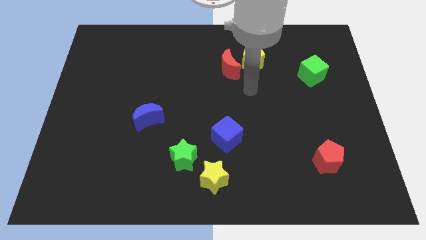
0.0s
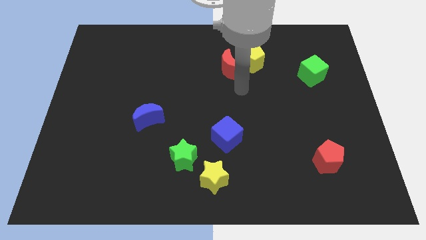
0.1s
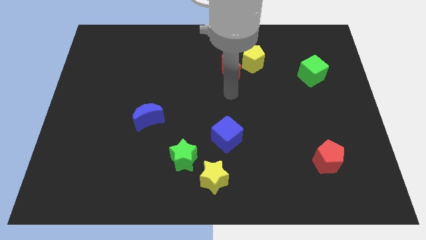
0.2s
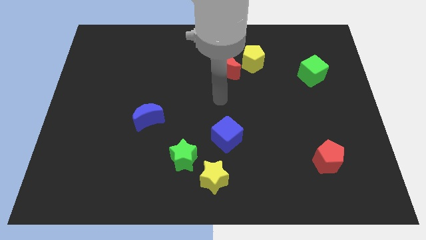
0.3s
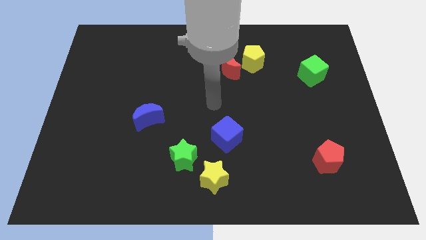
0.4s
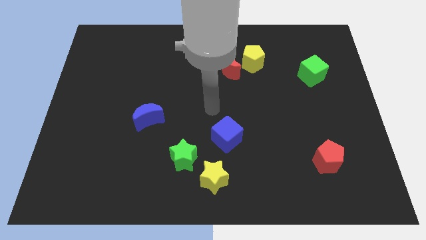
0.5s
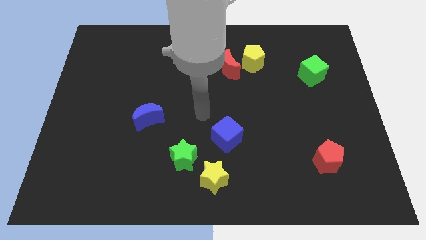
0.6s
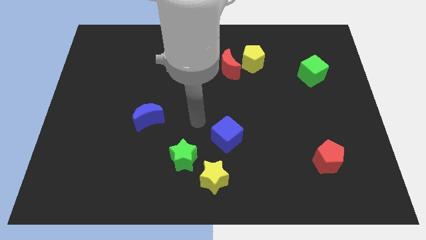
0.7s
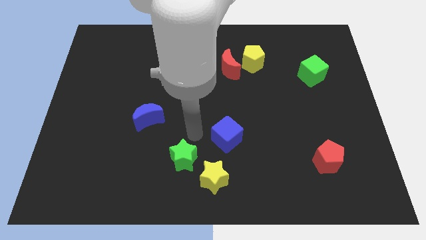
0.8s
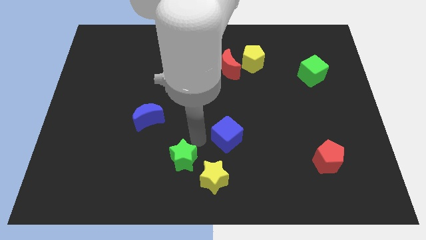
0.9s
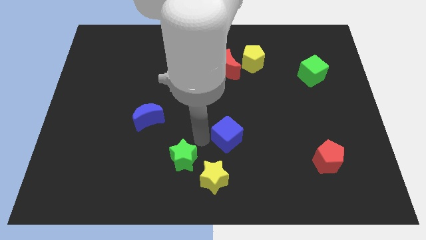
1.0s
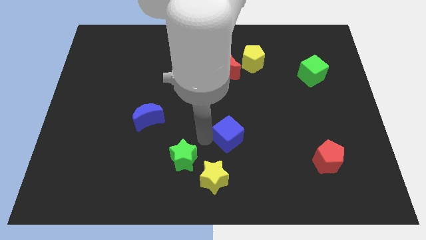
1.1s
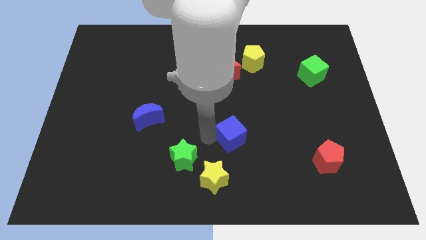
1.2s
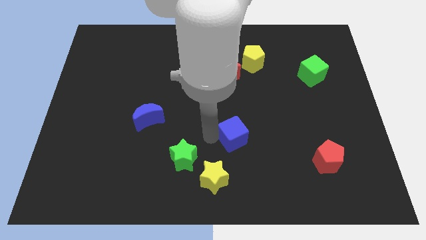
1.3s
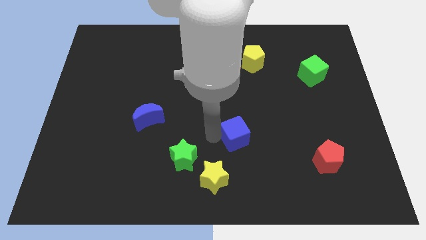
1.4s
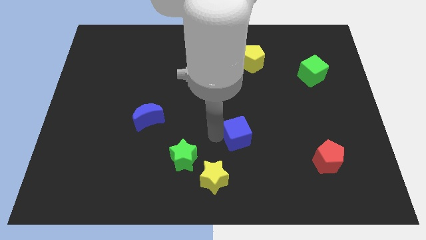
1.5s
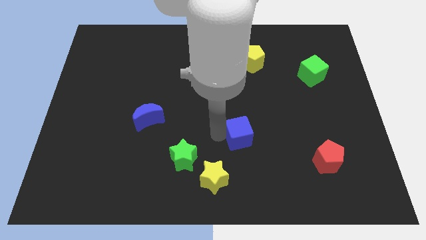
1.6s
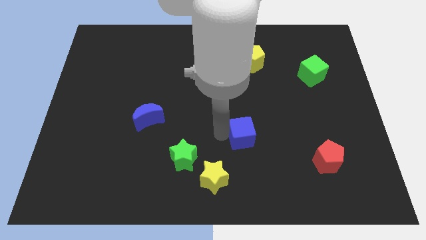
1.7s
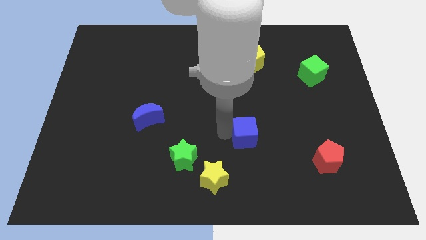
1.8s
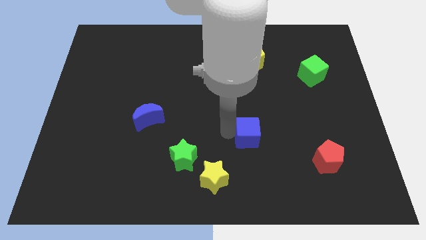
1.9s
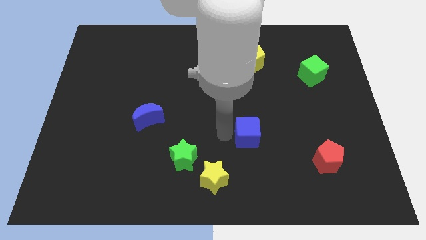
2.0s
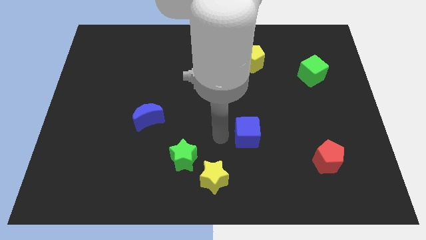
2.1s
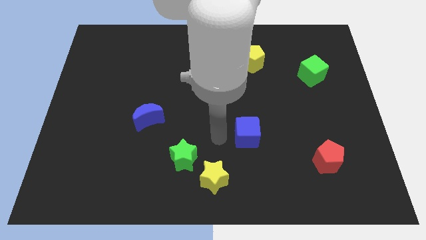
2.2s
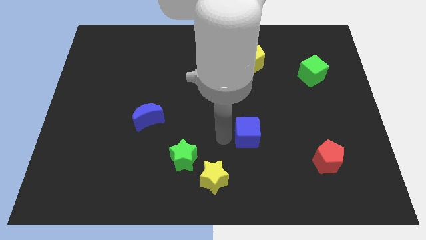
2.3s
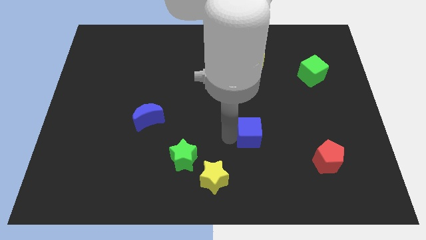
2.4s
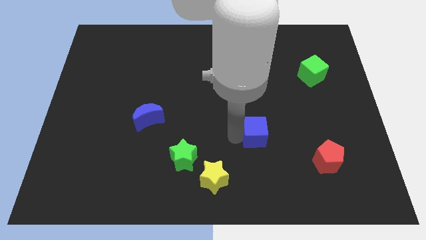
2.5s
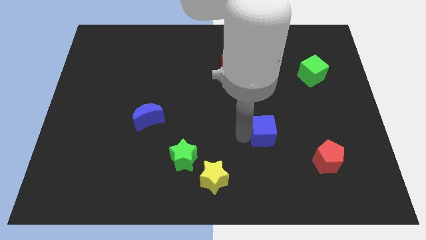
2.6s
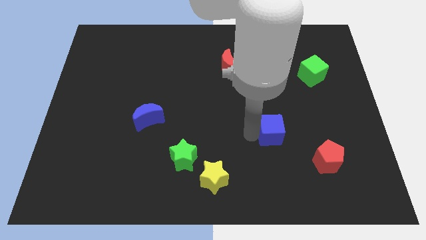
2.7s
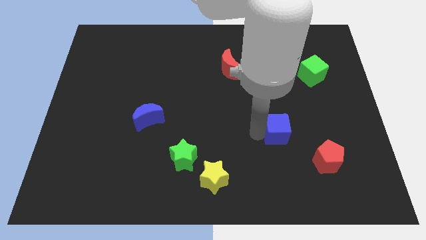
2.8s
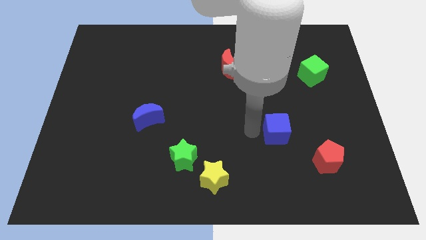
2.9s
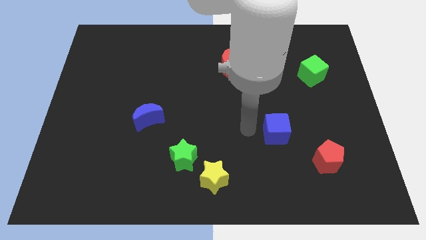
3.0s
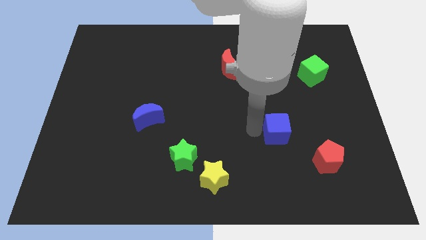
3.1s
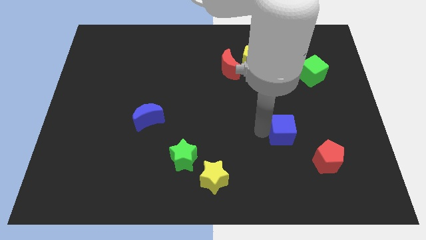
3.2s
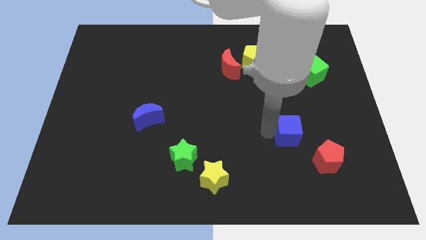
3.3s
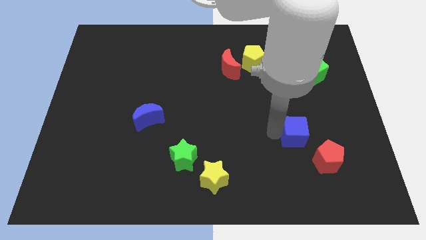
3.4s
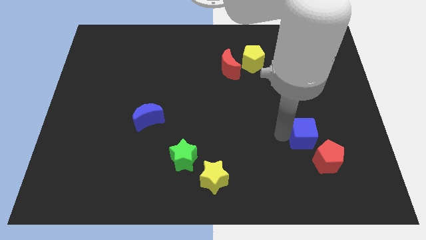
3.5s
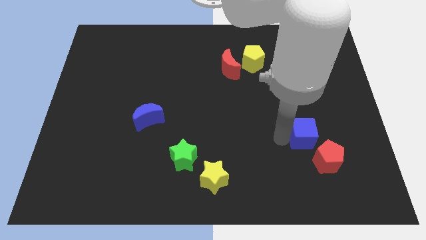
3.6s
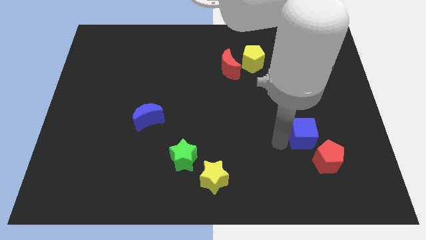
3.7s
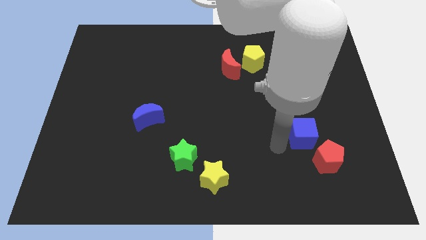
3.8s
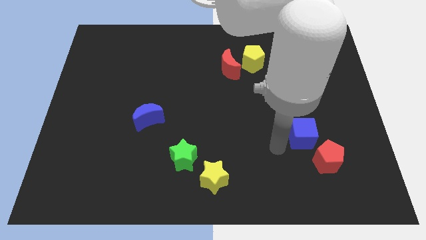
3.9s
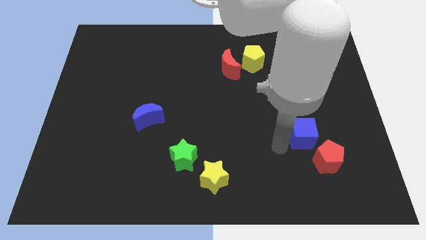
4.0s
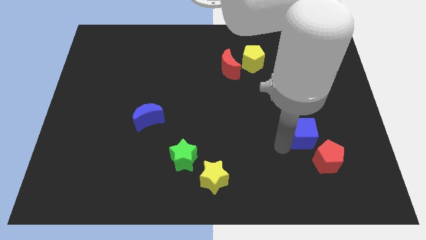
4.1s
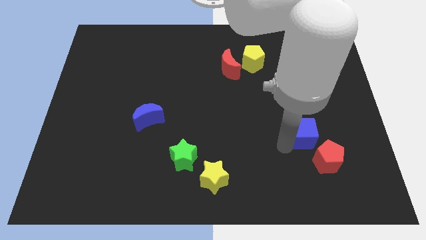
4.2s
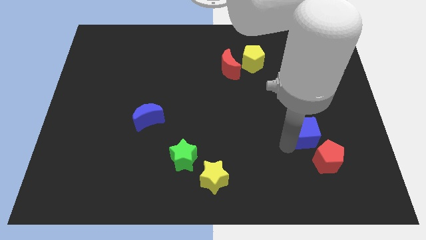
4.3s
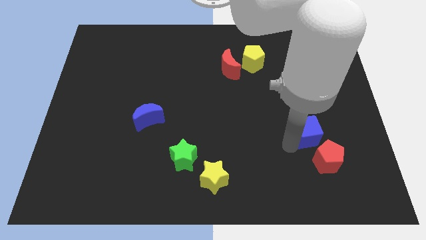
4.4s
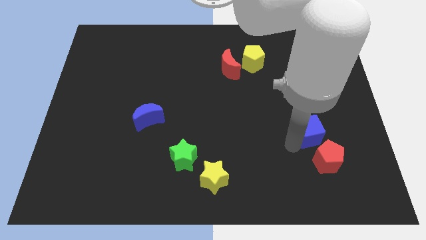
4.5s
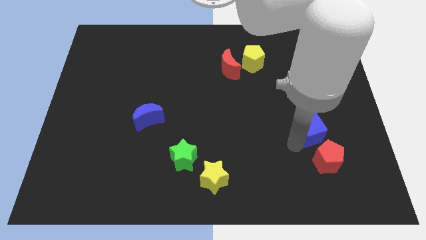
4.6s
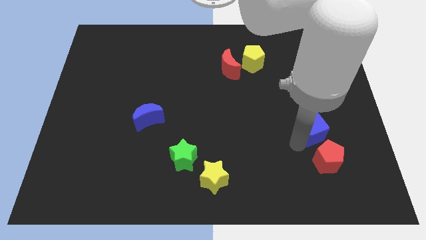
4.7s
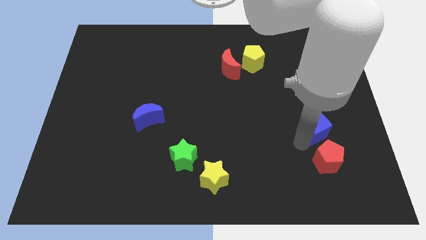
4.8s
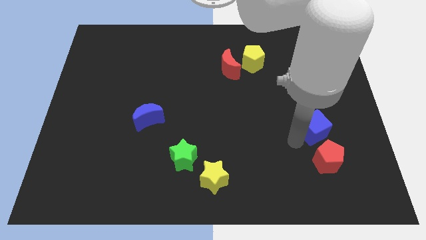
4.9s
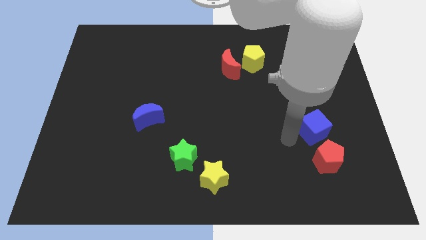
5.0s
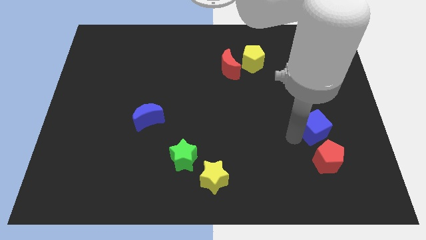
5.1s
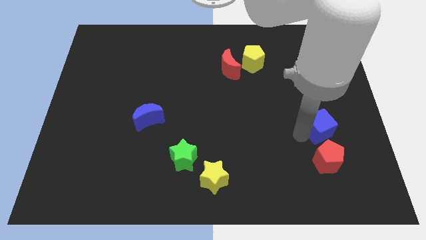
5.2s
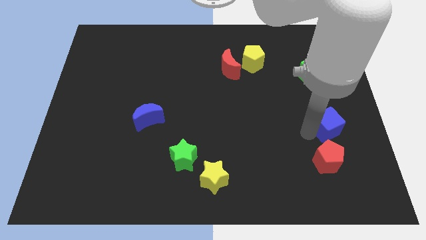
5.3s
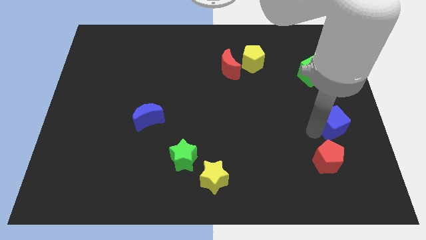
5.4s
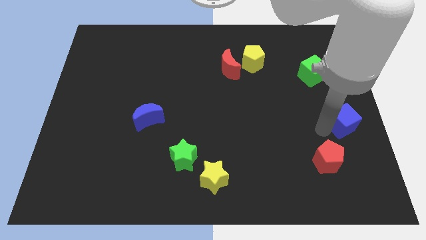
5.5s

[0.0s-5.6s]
slide the blue cube to the center right

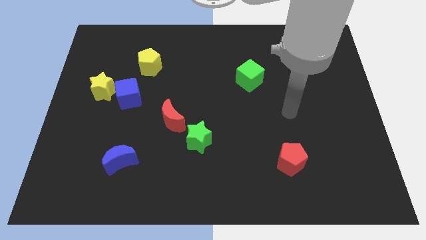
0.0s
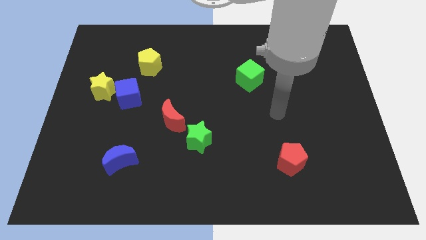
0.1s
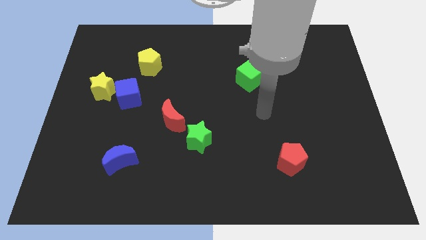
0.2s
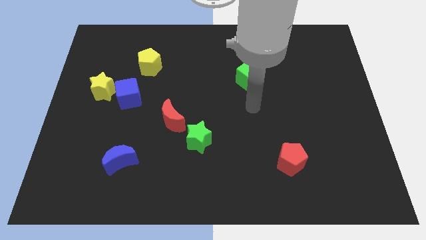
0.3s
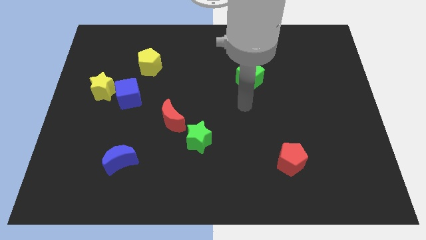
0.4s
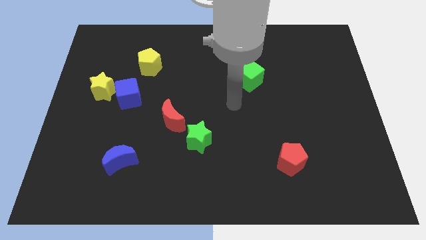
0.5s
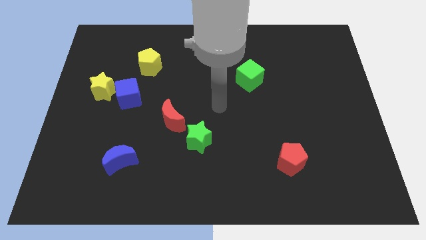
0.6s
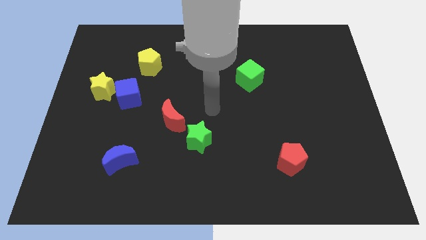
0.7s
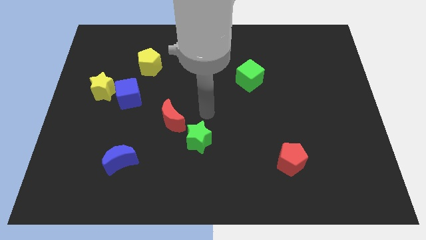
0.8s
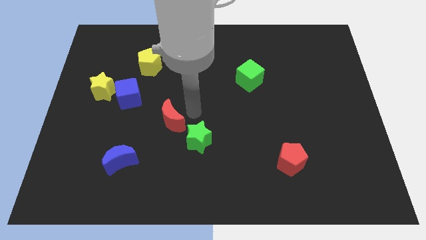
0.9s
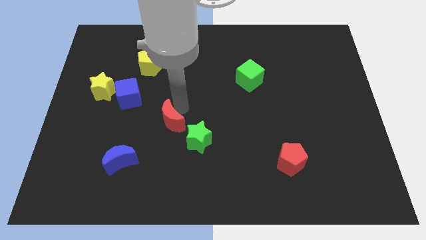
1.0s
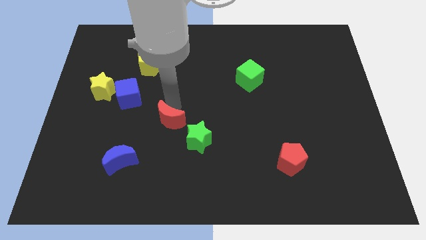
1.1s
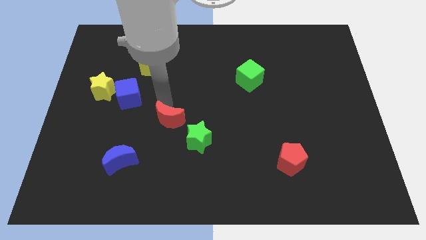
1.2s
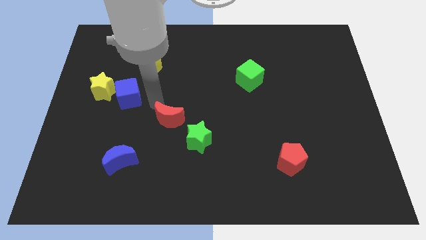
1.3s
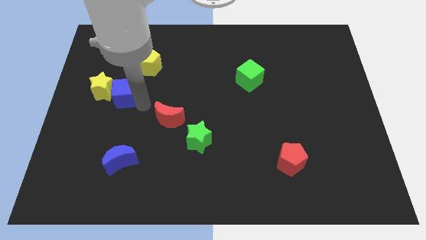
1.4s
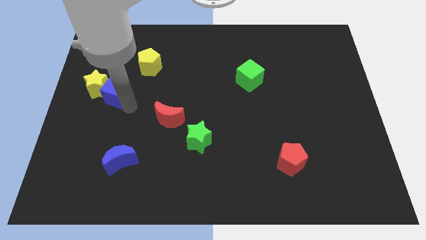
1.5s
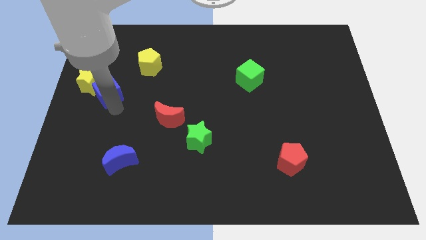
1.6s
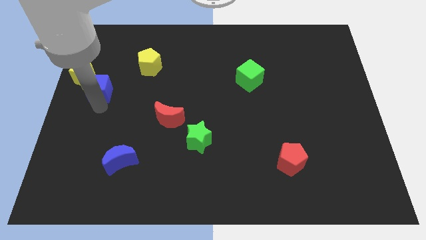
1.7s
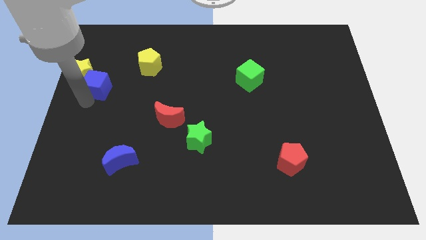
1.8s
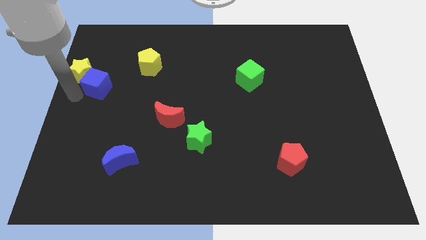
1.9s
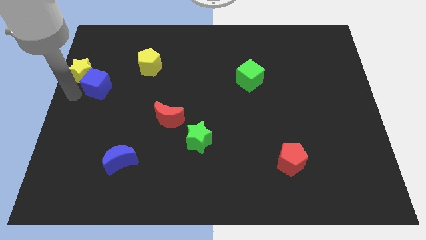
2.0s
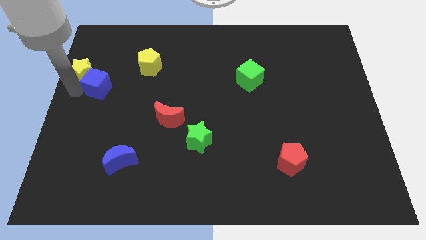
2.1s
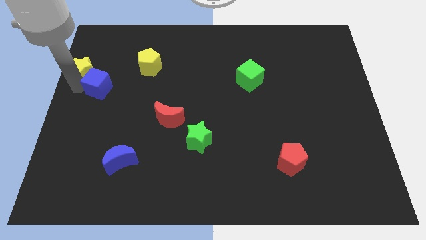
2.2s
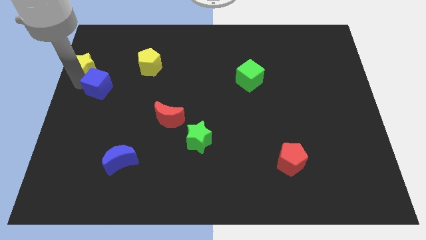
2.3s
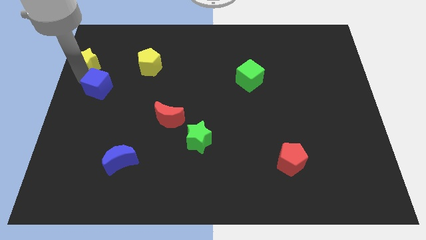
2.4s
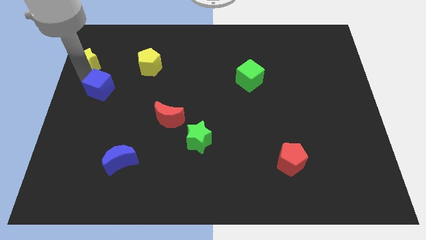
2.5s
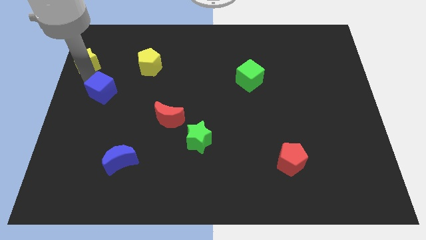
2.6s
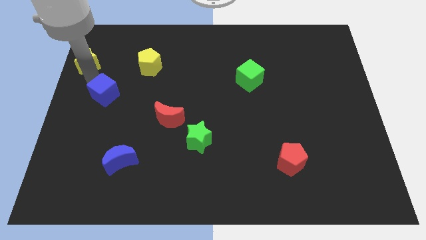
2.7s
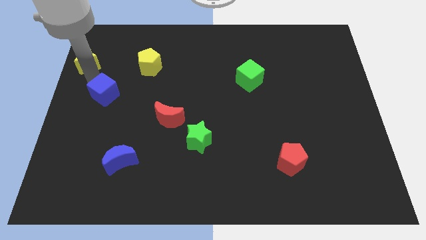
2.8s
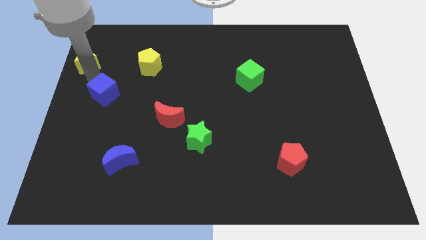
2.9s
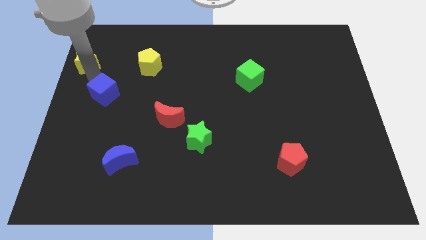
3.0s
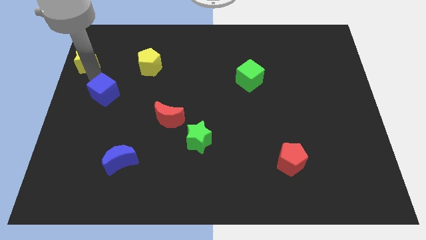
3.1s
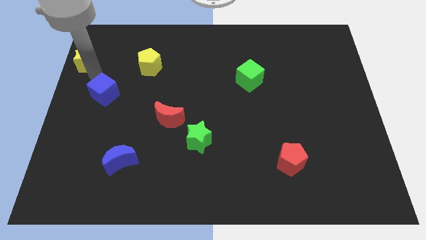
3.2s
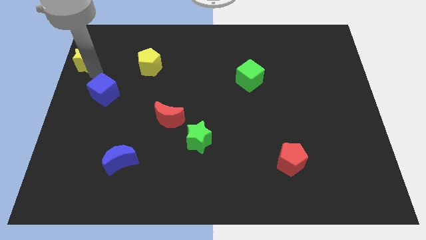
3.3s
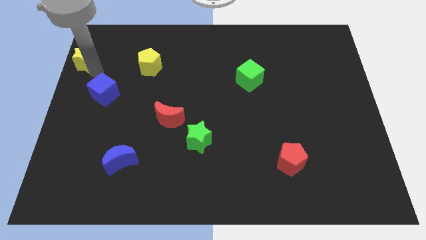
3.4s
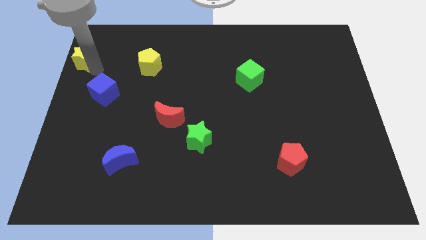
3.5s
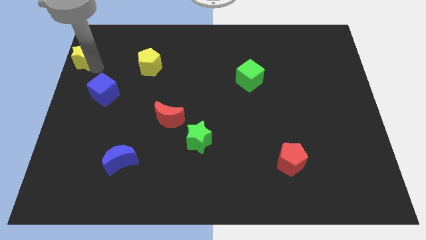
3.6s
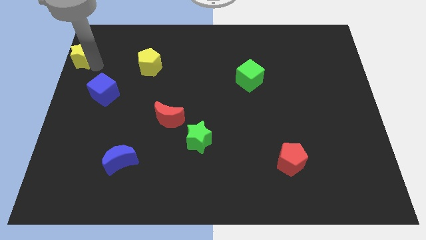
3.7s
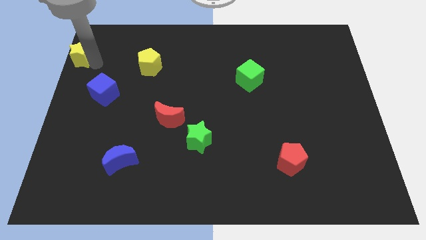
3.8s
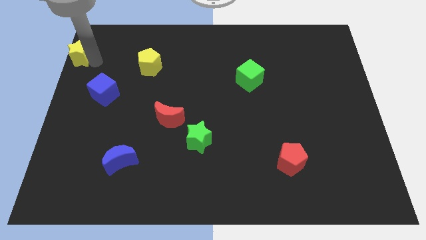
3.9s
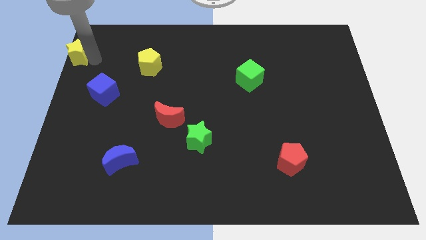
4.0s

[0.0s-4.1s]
slide the yellow star to the upper left corner
